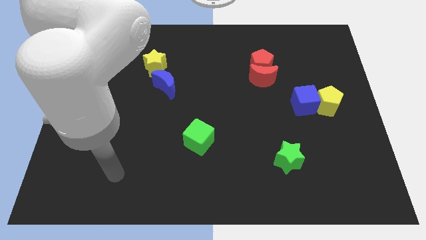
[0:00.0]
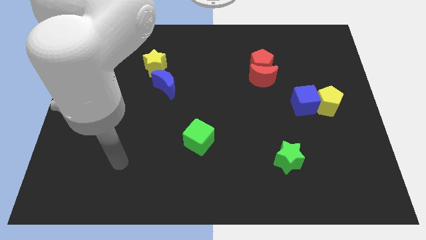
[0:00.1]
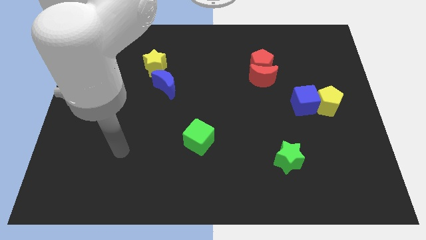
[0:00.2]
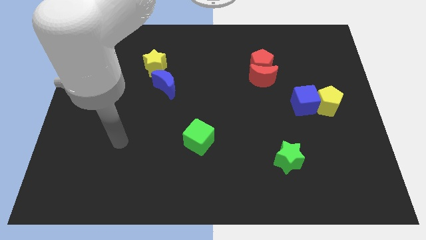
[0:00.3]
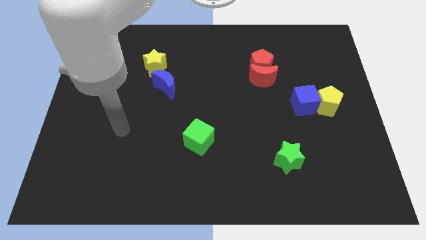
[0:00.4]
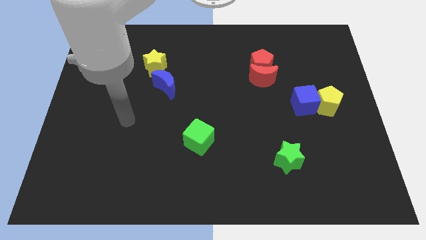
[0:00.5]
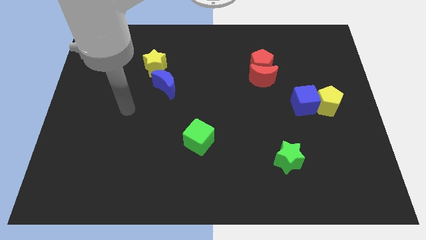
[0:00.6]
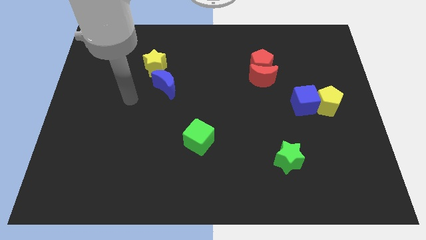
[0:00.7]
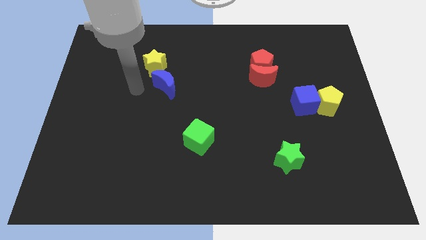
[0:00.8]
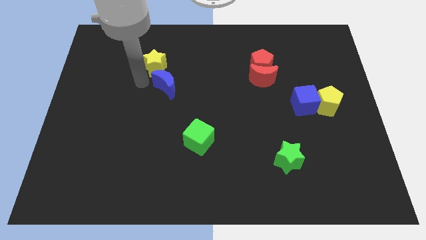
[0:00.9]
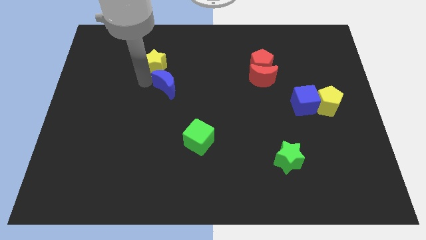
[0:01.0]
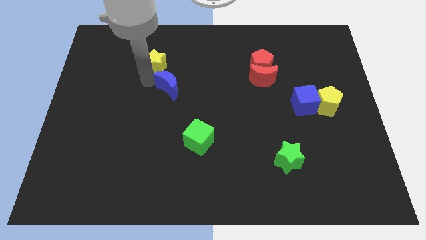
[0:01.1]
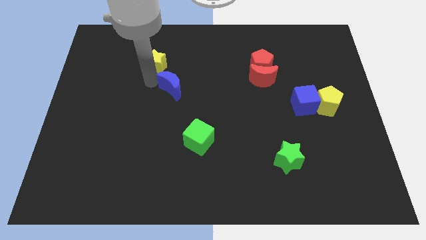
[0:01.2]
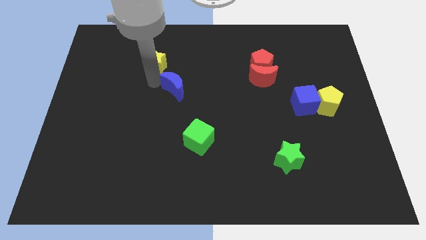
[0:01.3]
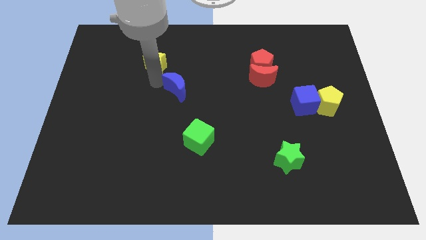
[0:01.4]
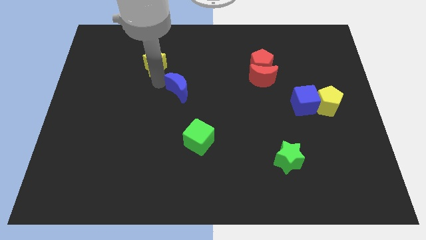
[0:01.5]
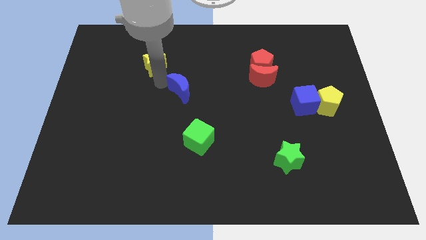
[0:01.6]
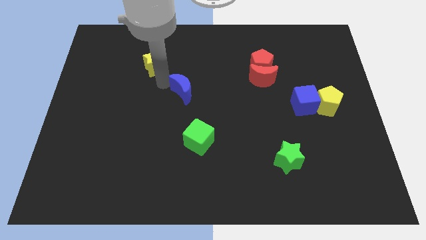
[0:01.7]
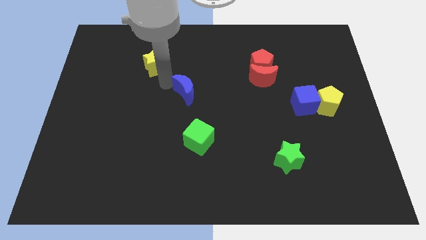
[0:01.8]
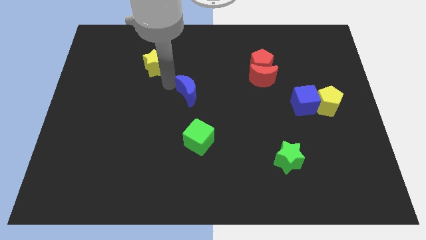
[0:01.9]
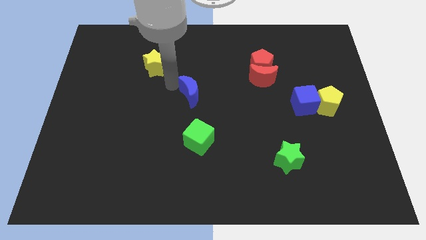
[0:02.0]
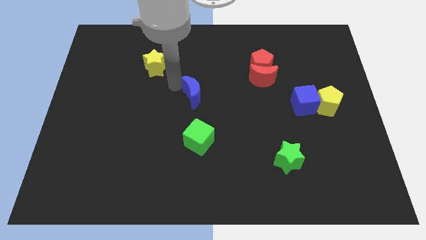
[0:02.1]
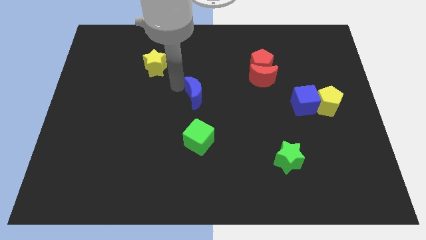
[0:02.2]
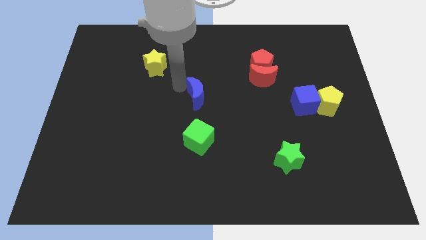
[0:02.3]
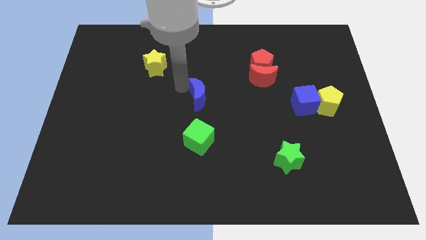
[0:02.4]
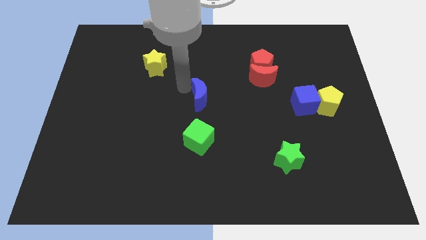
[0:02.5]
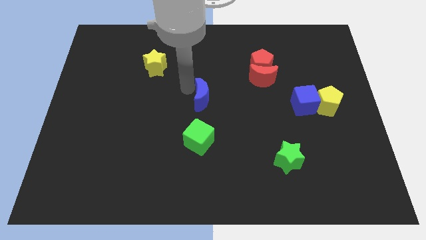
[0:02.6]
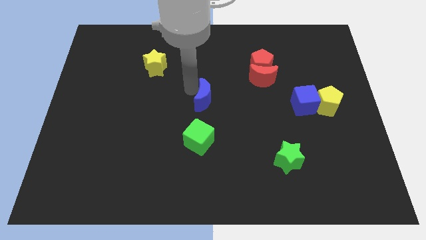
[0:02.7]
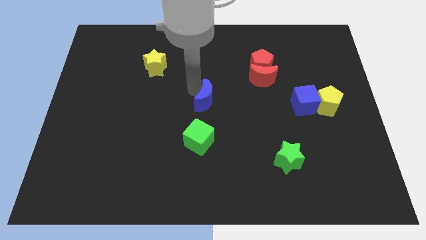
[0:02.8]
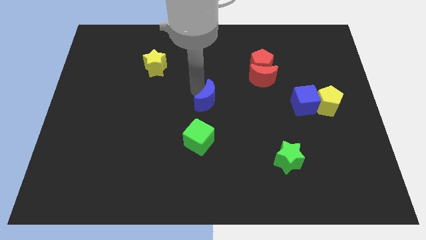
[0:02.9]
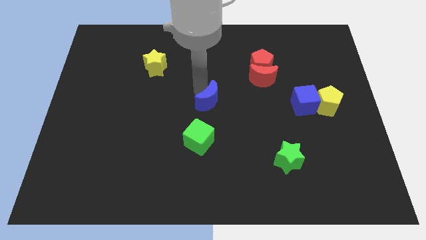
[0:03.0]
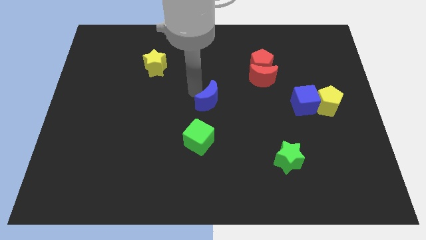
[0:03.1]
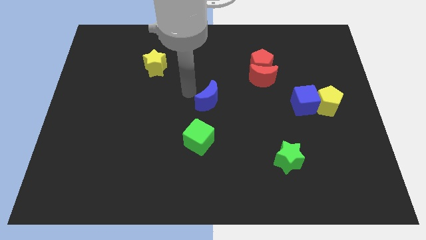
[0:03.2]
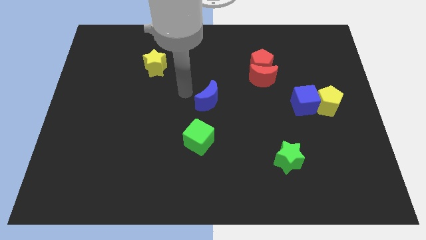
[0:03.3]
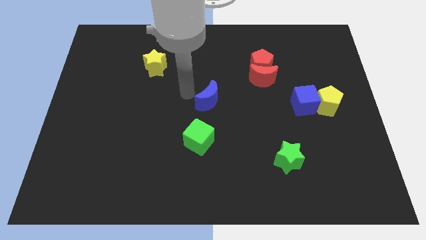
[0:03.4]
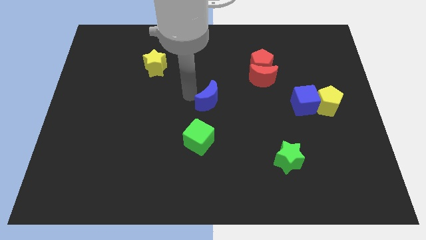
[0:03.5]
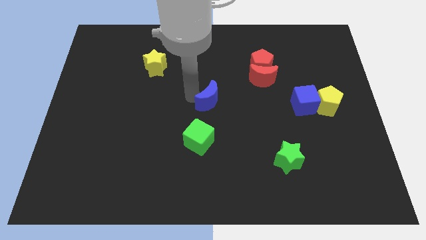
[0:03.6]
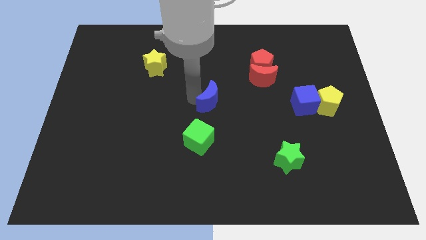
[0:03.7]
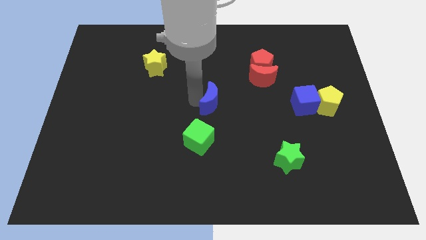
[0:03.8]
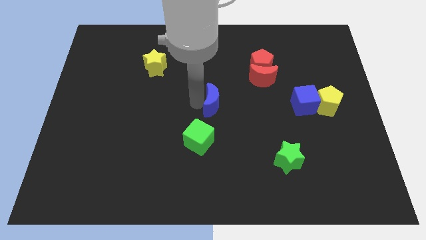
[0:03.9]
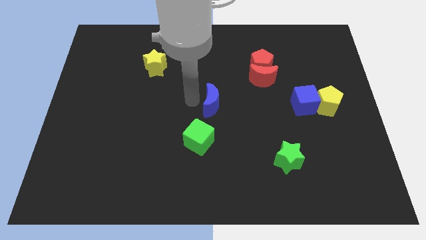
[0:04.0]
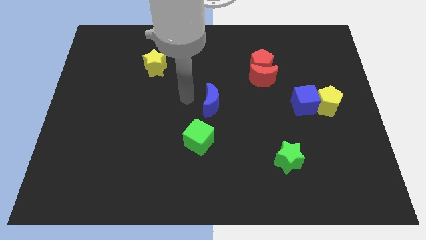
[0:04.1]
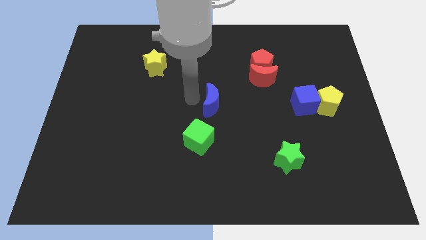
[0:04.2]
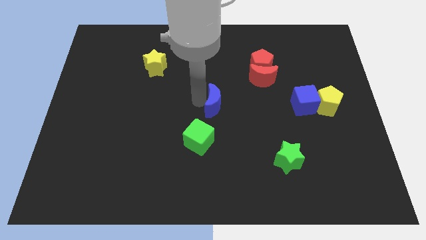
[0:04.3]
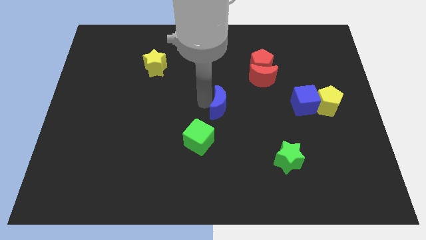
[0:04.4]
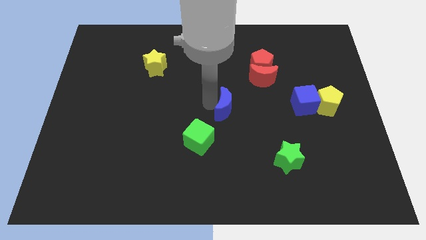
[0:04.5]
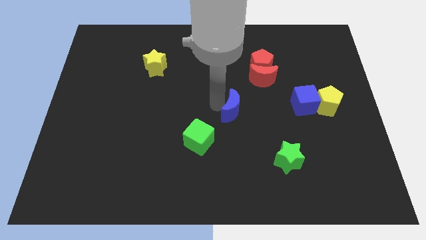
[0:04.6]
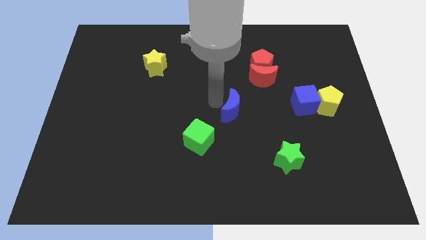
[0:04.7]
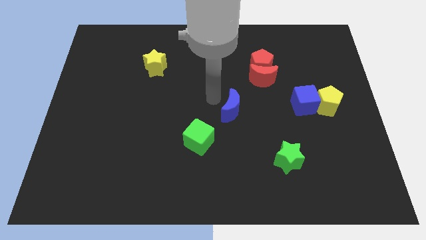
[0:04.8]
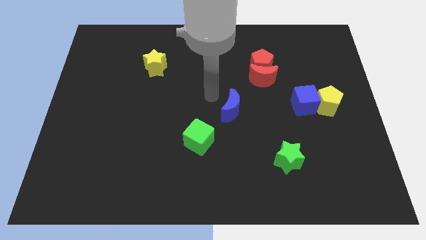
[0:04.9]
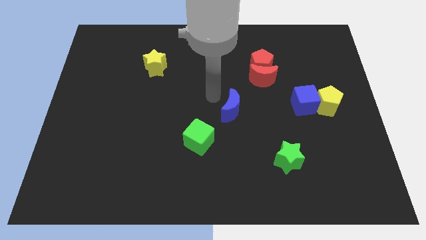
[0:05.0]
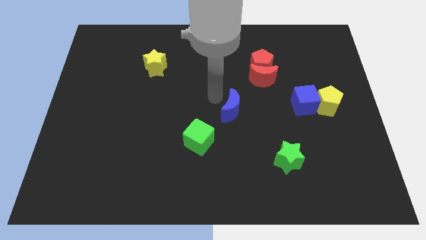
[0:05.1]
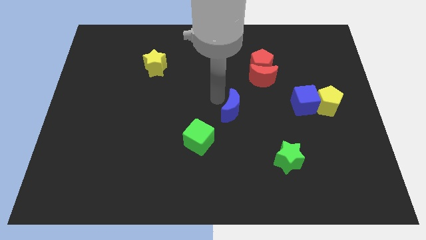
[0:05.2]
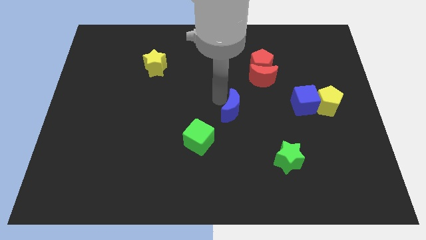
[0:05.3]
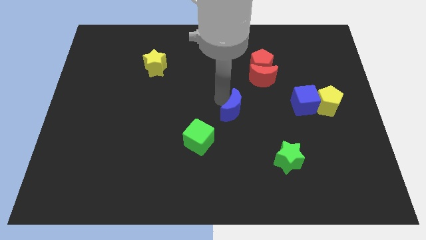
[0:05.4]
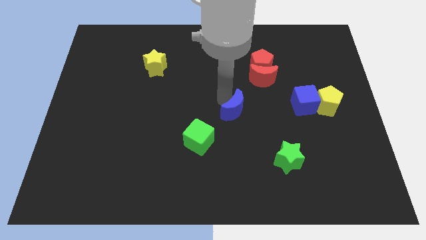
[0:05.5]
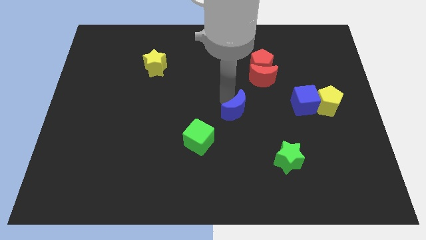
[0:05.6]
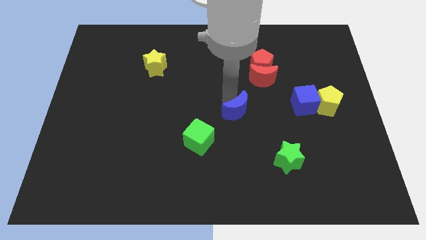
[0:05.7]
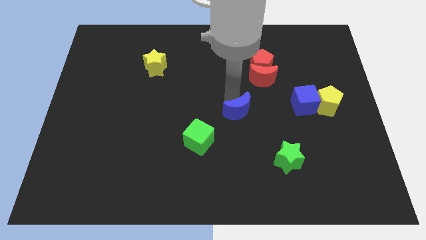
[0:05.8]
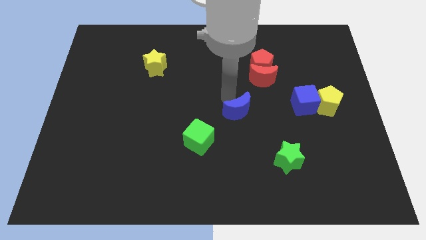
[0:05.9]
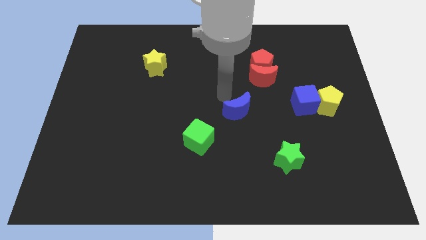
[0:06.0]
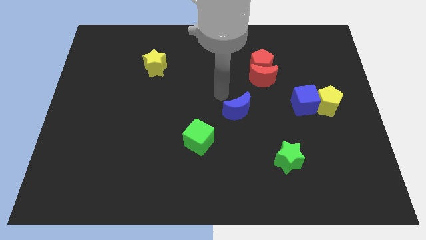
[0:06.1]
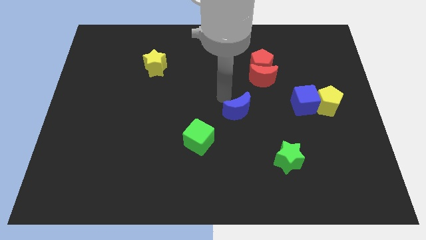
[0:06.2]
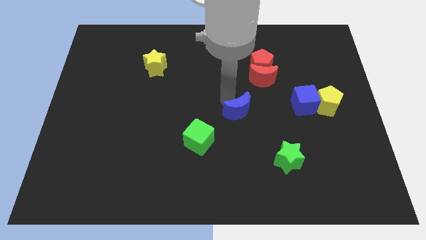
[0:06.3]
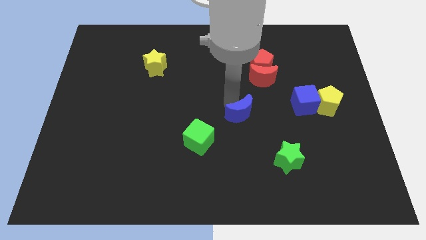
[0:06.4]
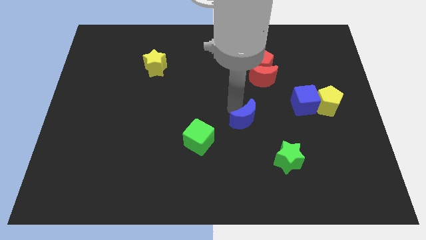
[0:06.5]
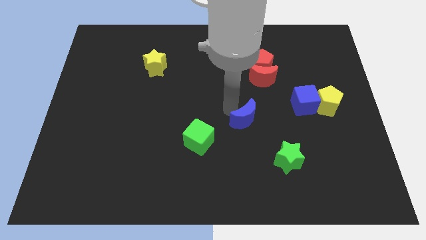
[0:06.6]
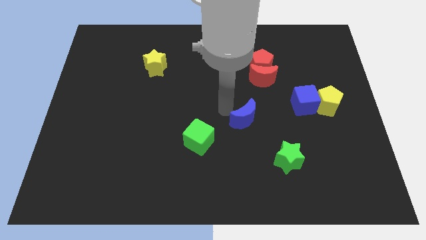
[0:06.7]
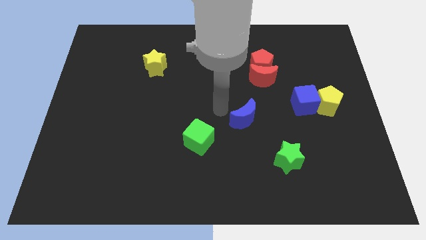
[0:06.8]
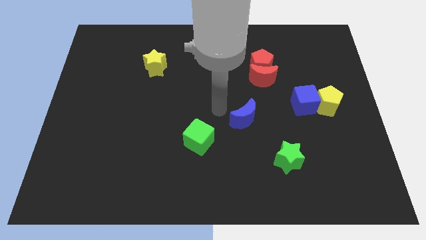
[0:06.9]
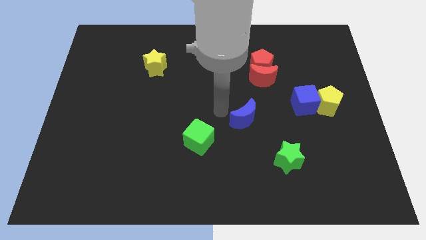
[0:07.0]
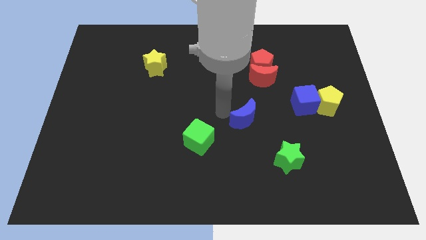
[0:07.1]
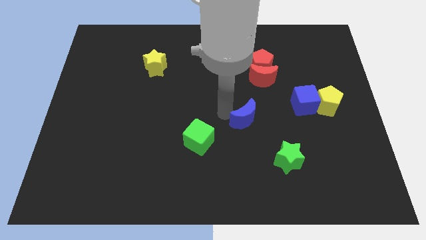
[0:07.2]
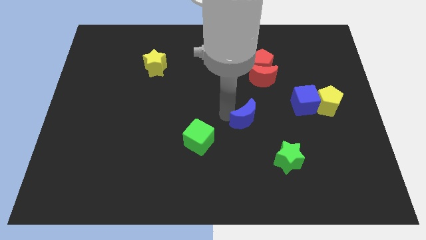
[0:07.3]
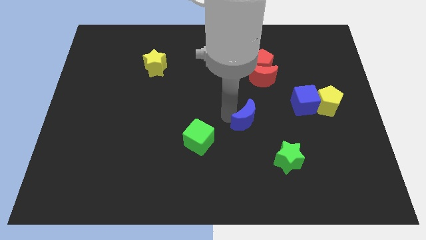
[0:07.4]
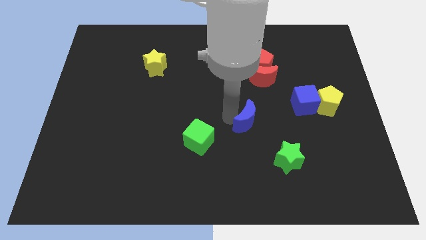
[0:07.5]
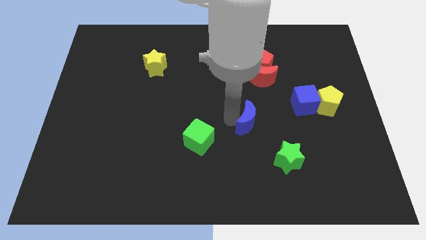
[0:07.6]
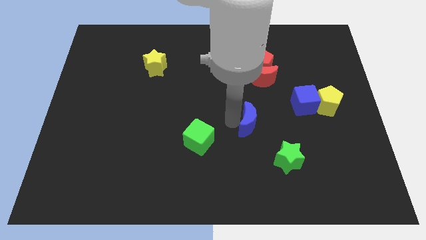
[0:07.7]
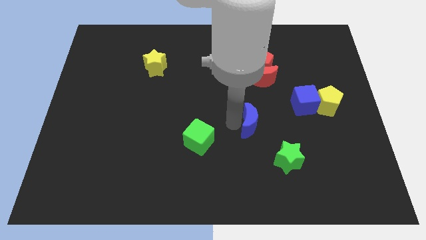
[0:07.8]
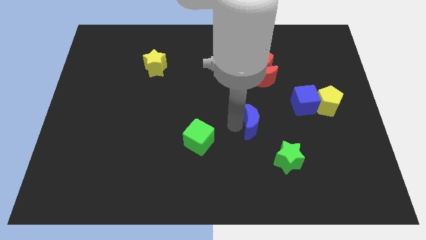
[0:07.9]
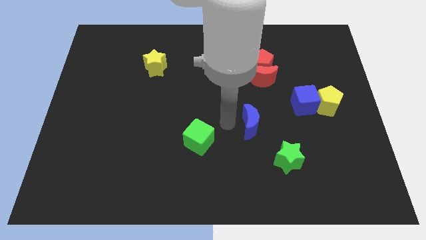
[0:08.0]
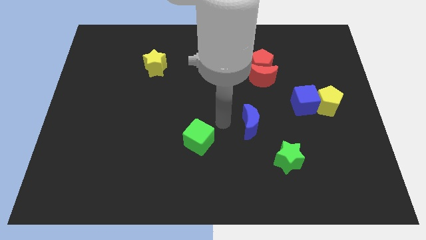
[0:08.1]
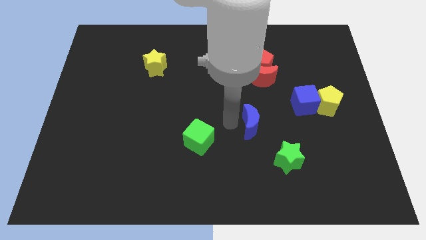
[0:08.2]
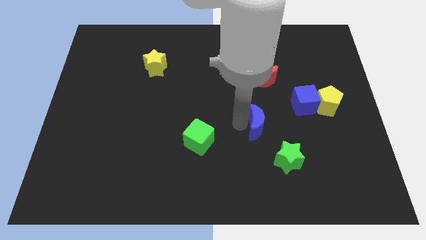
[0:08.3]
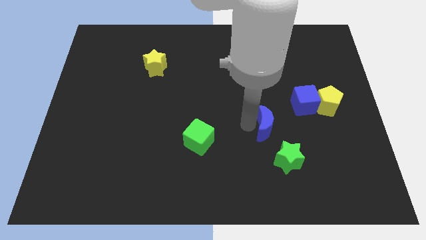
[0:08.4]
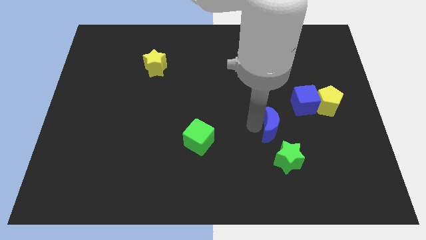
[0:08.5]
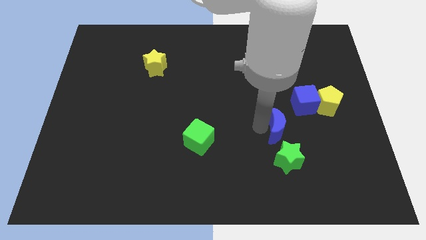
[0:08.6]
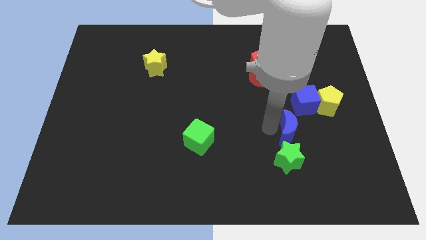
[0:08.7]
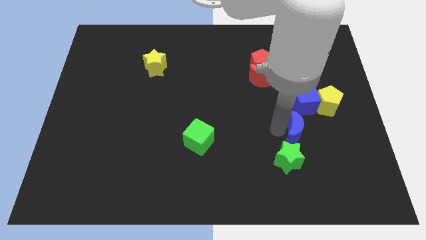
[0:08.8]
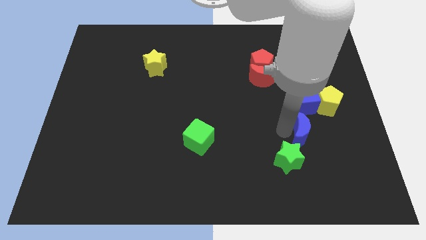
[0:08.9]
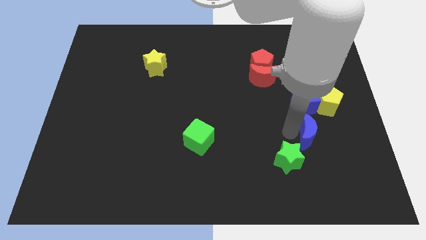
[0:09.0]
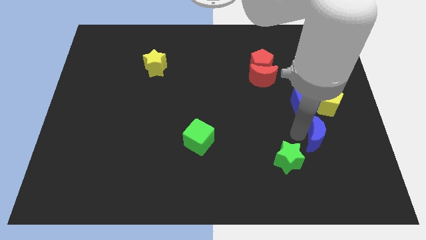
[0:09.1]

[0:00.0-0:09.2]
push the blue moon to the bottom side of the yellow pentagon
